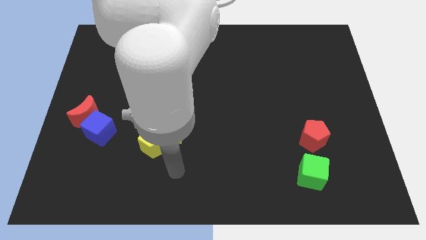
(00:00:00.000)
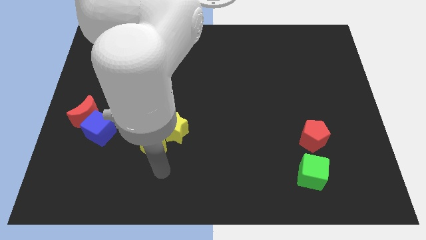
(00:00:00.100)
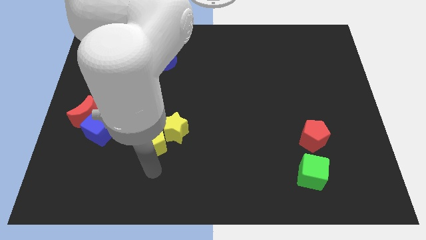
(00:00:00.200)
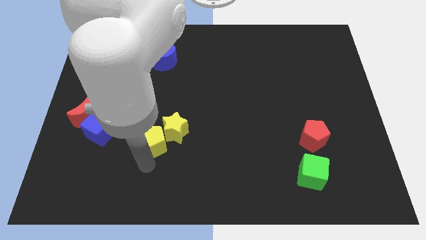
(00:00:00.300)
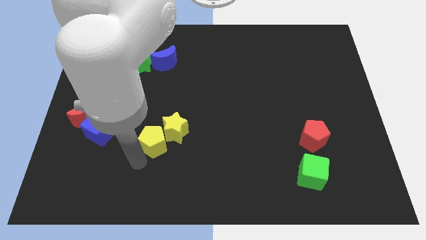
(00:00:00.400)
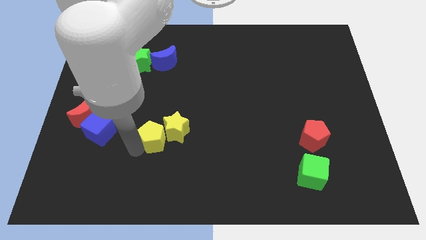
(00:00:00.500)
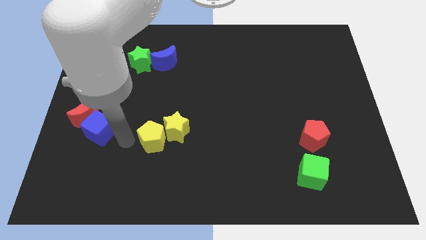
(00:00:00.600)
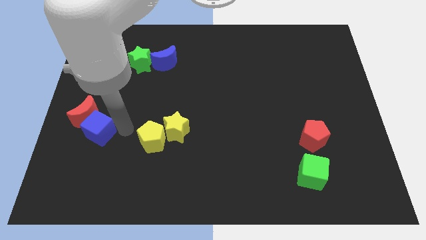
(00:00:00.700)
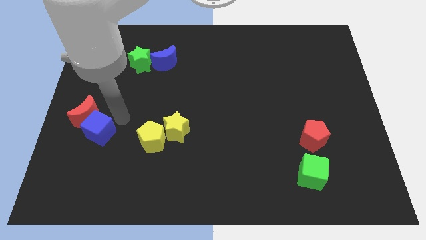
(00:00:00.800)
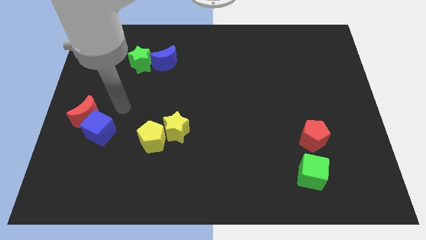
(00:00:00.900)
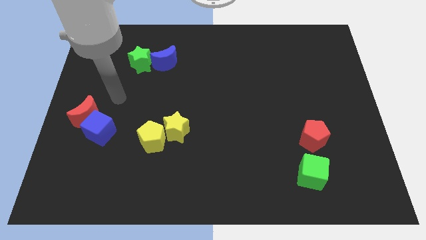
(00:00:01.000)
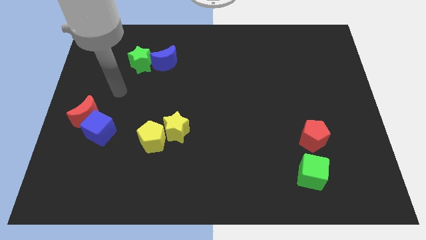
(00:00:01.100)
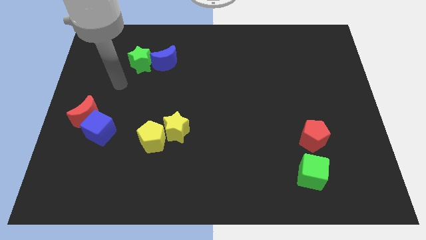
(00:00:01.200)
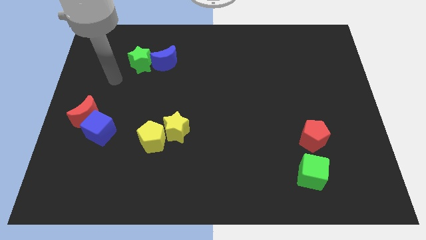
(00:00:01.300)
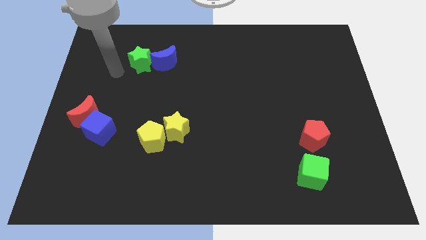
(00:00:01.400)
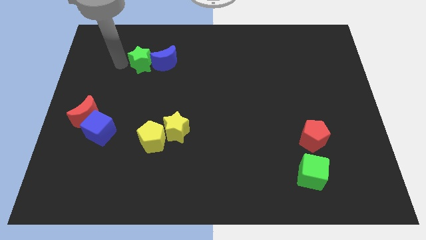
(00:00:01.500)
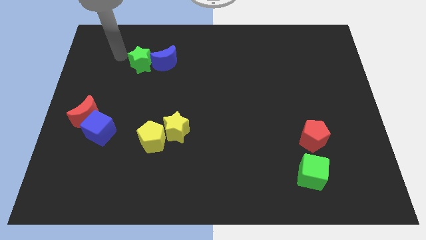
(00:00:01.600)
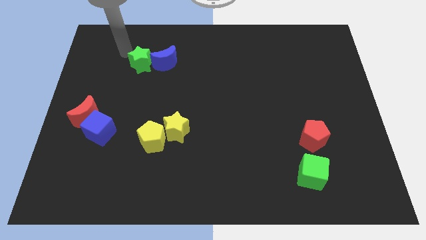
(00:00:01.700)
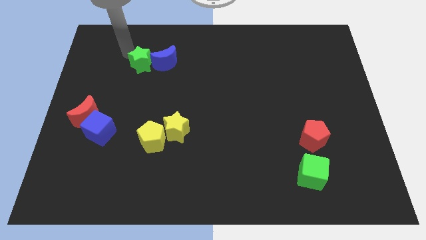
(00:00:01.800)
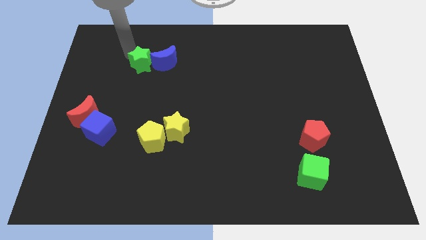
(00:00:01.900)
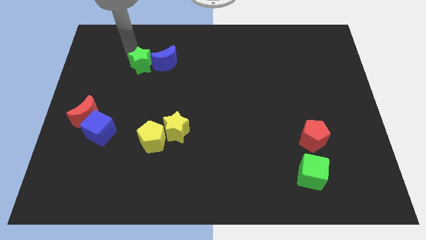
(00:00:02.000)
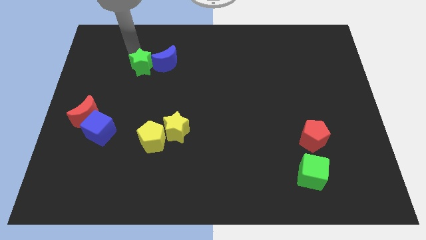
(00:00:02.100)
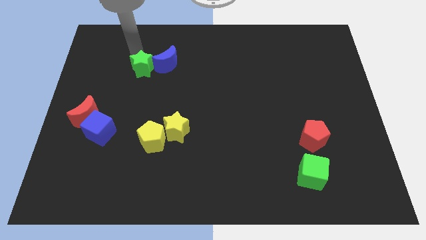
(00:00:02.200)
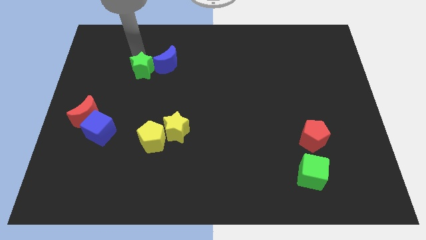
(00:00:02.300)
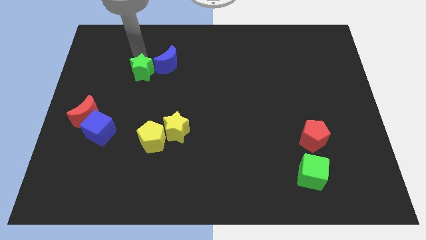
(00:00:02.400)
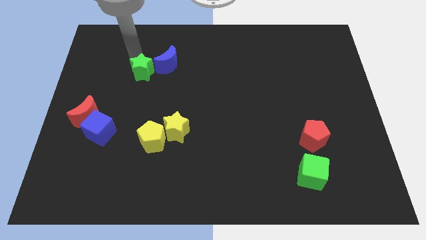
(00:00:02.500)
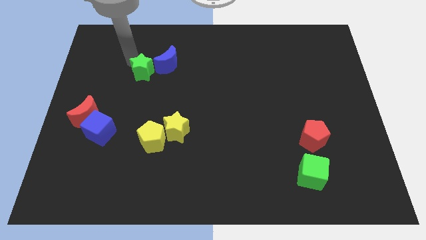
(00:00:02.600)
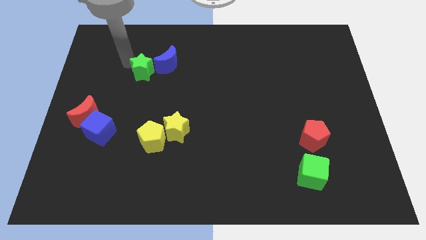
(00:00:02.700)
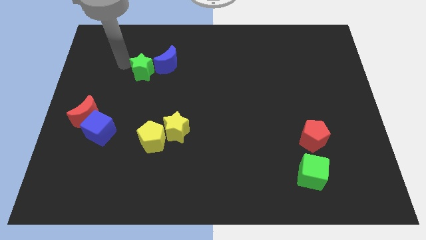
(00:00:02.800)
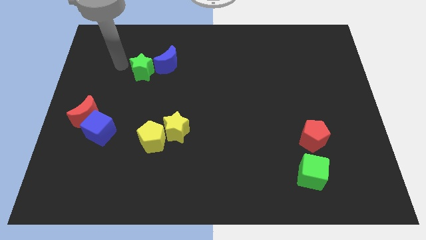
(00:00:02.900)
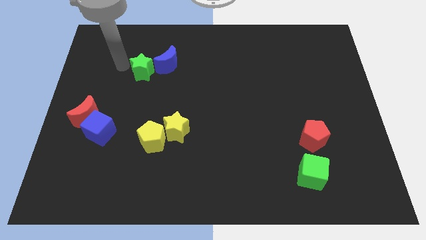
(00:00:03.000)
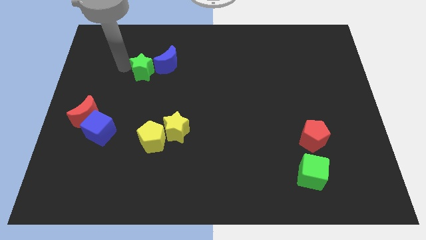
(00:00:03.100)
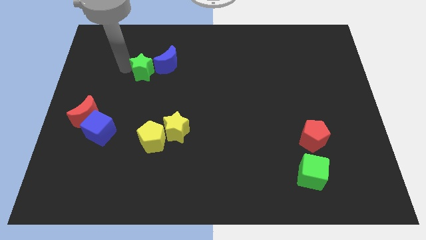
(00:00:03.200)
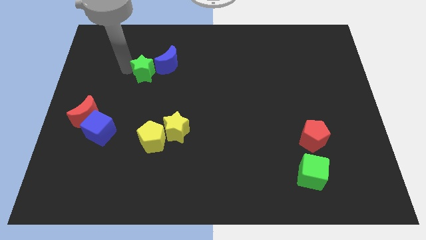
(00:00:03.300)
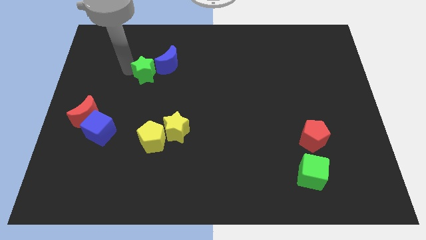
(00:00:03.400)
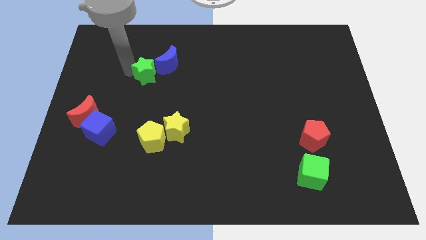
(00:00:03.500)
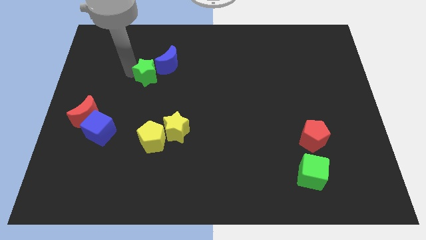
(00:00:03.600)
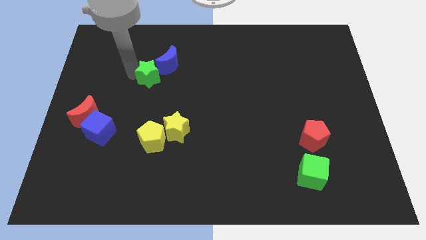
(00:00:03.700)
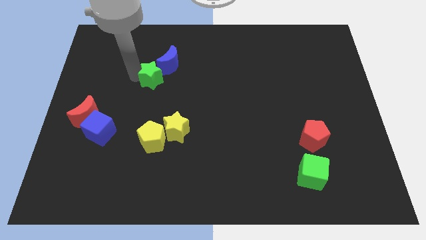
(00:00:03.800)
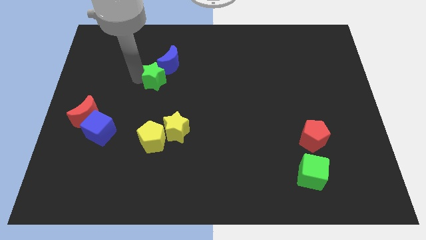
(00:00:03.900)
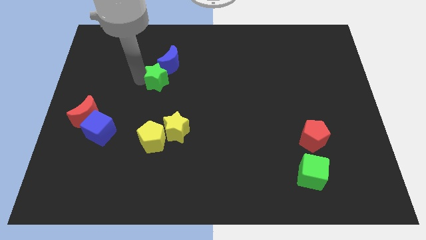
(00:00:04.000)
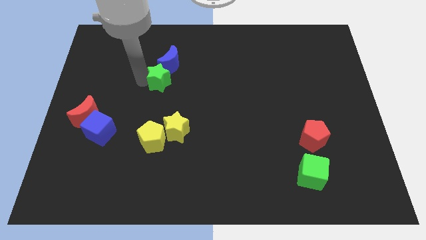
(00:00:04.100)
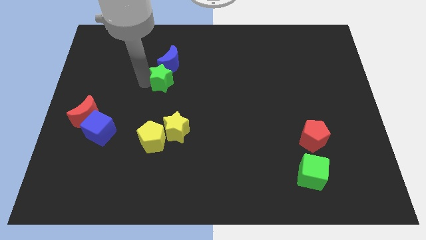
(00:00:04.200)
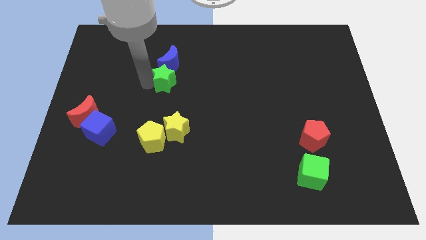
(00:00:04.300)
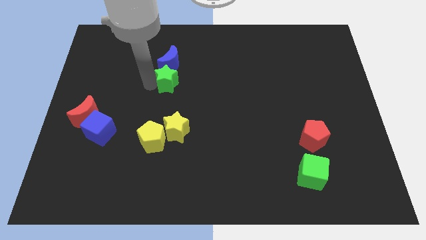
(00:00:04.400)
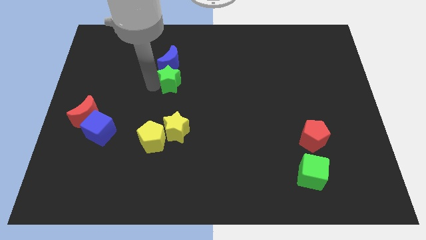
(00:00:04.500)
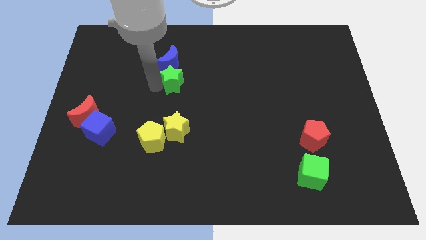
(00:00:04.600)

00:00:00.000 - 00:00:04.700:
slightly slide the green star to the right

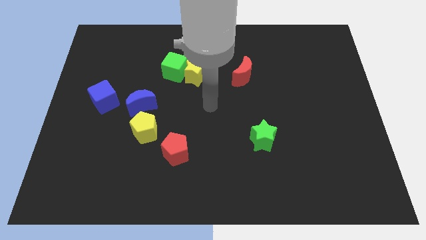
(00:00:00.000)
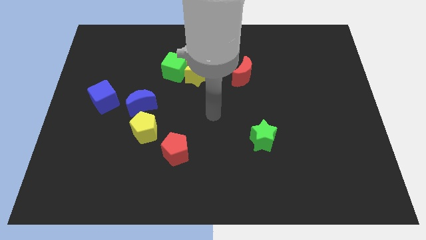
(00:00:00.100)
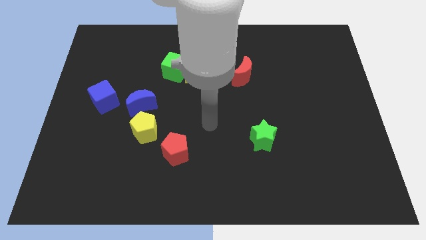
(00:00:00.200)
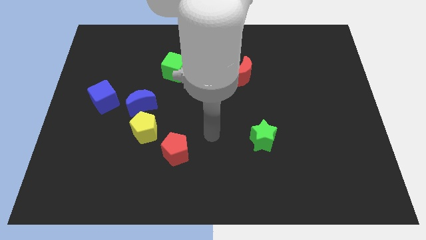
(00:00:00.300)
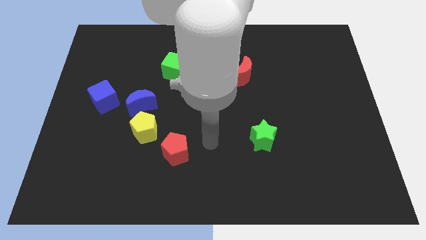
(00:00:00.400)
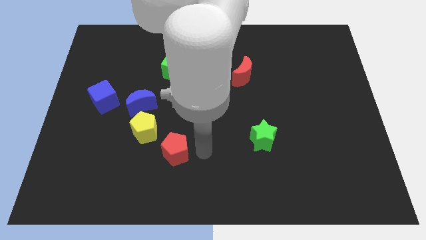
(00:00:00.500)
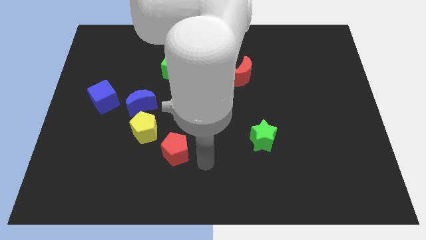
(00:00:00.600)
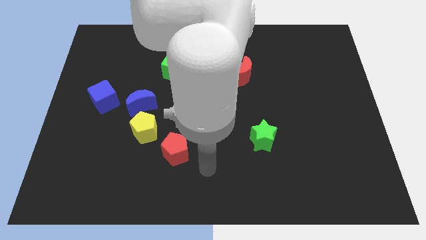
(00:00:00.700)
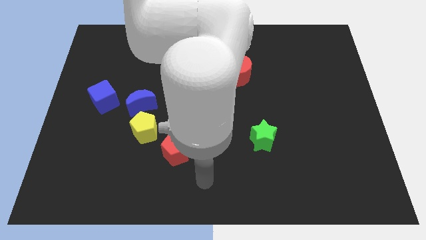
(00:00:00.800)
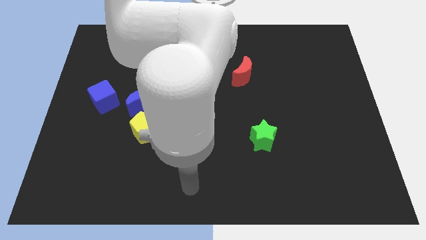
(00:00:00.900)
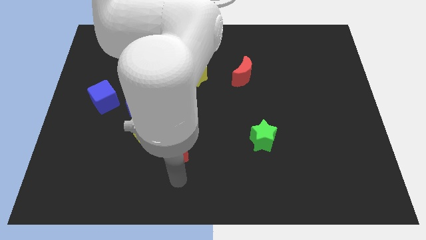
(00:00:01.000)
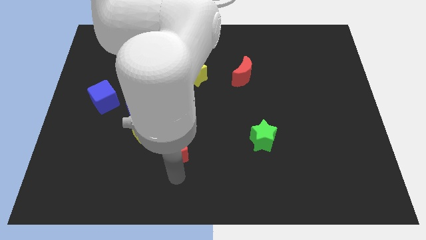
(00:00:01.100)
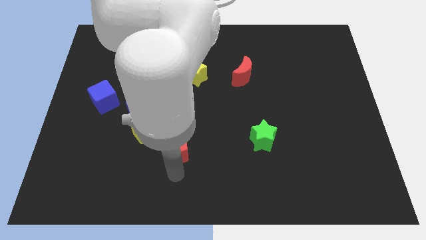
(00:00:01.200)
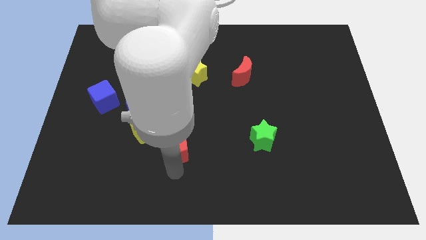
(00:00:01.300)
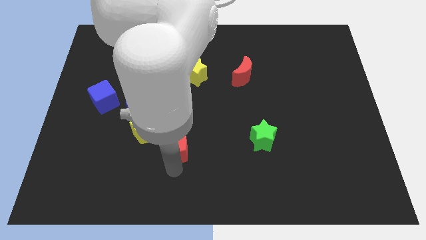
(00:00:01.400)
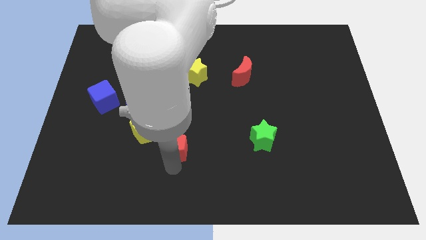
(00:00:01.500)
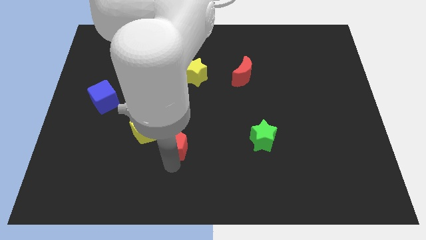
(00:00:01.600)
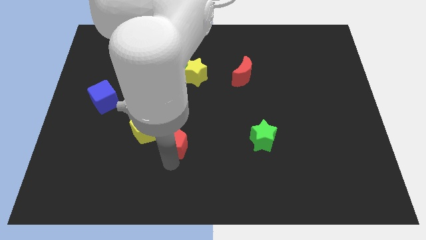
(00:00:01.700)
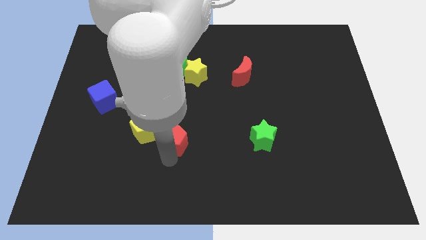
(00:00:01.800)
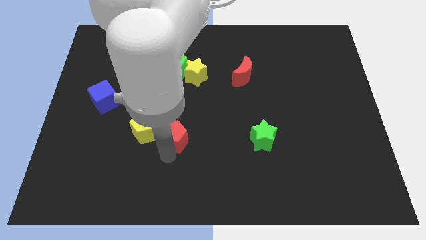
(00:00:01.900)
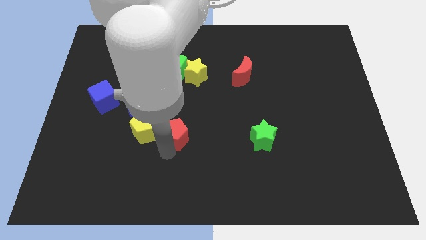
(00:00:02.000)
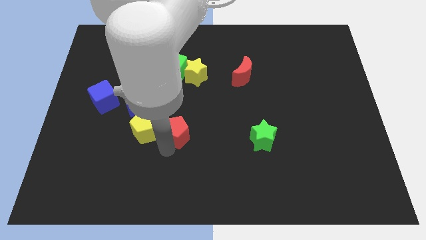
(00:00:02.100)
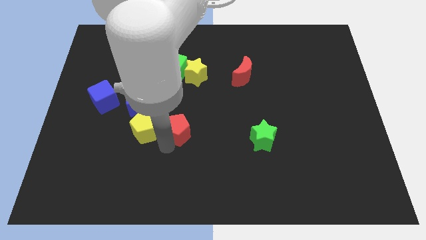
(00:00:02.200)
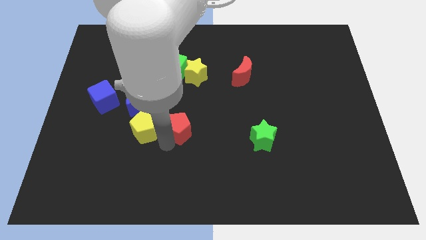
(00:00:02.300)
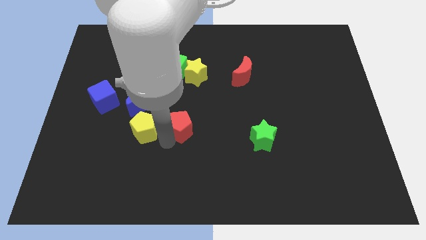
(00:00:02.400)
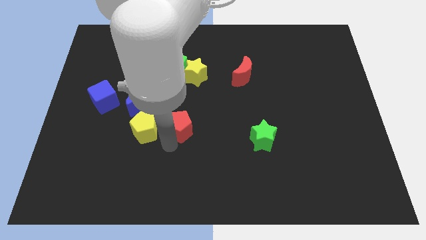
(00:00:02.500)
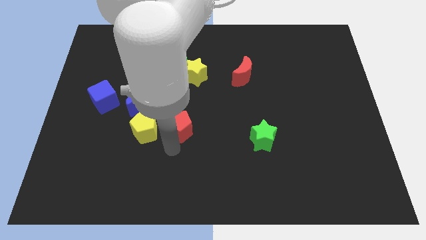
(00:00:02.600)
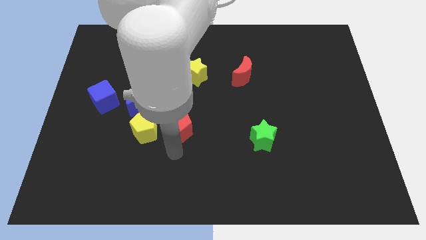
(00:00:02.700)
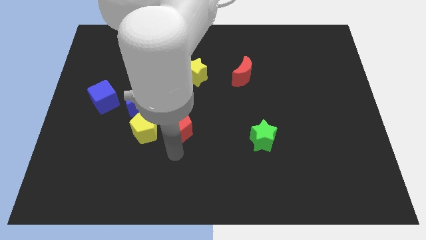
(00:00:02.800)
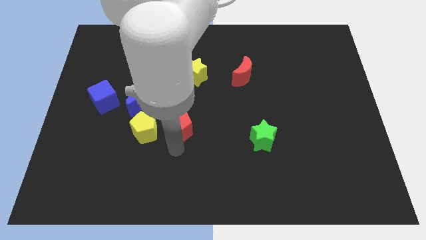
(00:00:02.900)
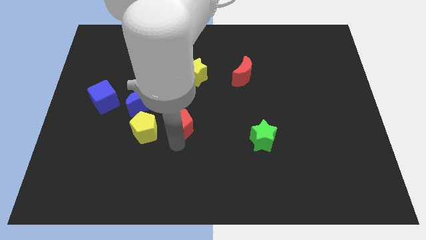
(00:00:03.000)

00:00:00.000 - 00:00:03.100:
slide the red pentagon up slightly
